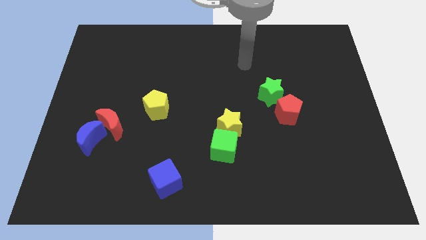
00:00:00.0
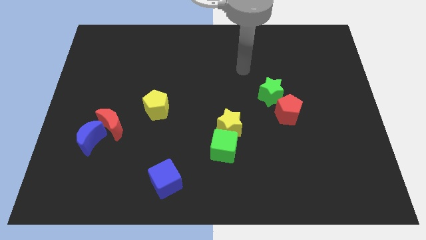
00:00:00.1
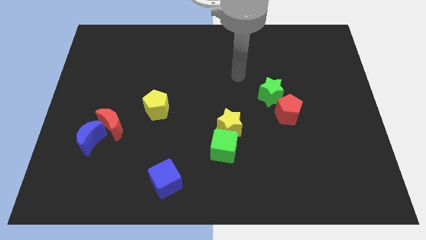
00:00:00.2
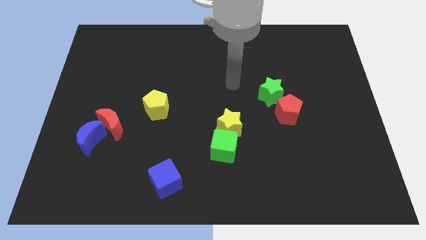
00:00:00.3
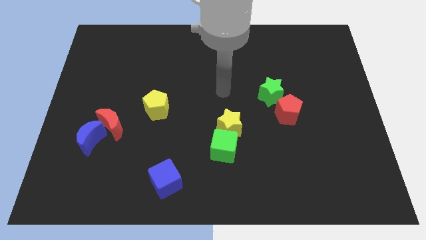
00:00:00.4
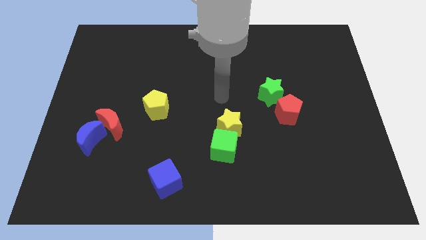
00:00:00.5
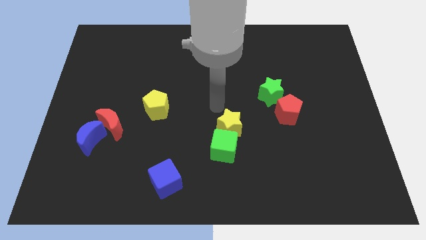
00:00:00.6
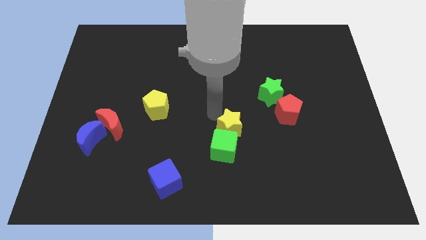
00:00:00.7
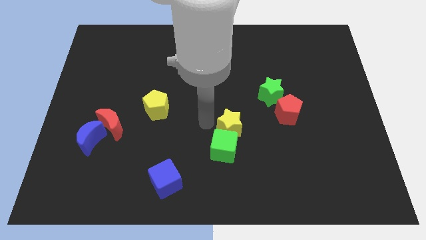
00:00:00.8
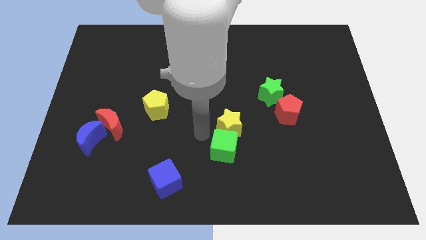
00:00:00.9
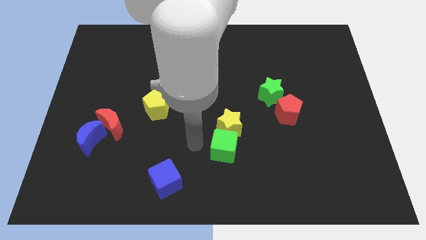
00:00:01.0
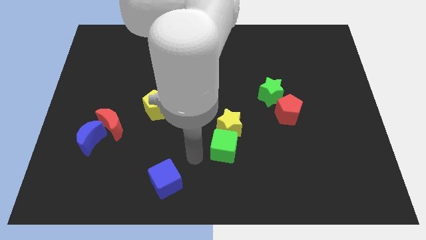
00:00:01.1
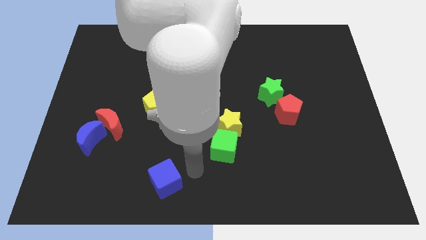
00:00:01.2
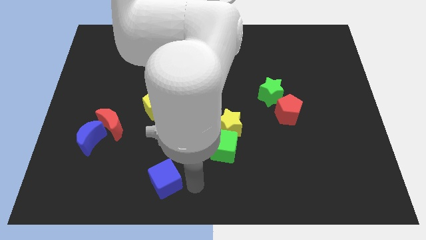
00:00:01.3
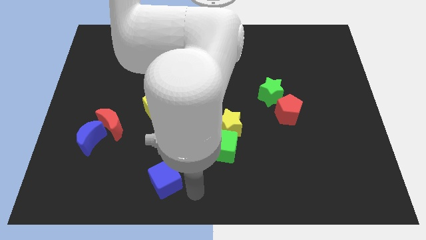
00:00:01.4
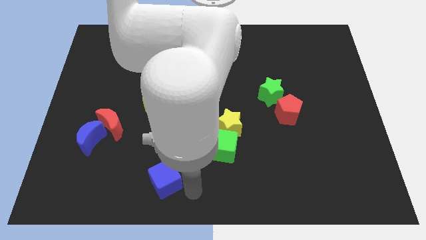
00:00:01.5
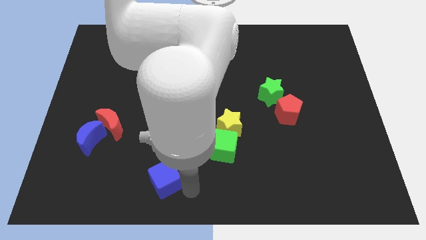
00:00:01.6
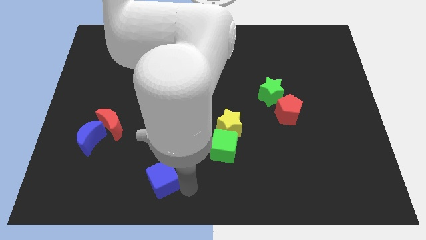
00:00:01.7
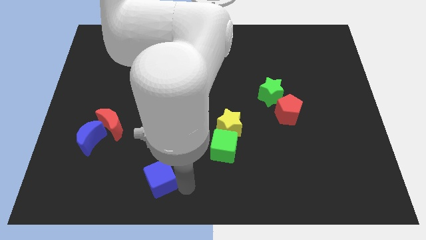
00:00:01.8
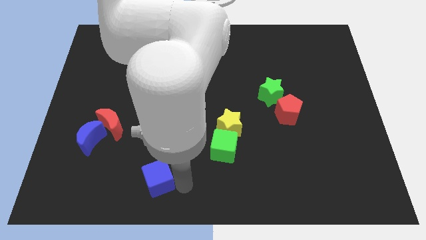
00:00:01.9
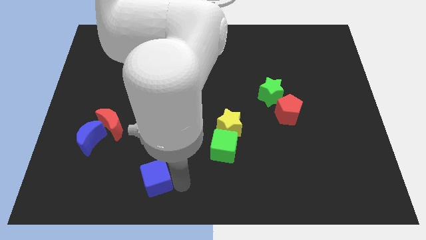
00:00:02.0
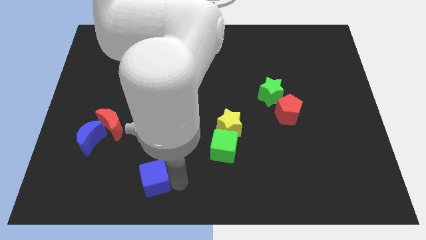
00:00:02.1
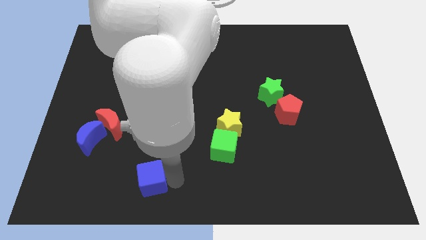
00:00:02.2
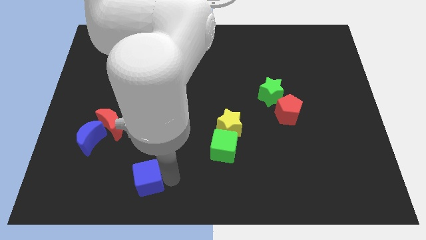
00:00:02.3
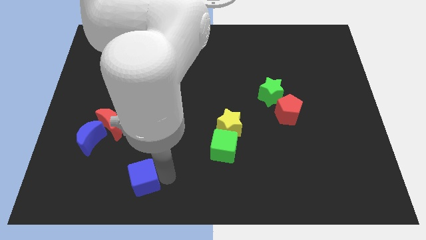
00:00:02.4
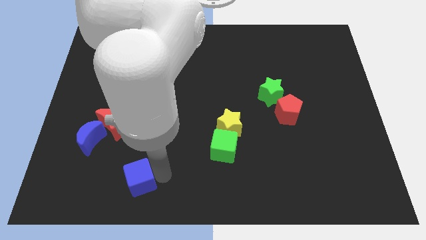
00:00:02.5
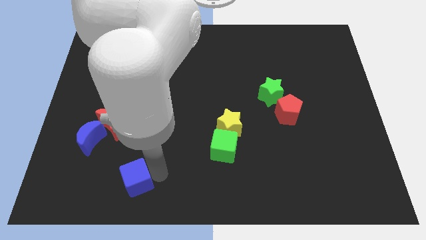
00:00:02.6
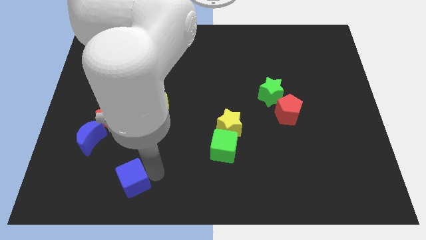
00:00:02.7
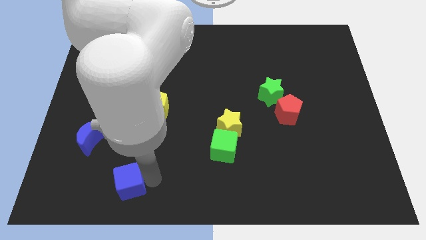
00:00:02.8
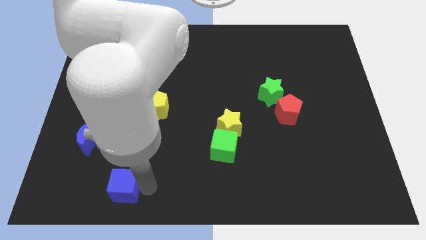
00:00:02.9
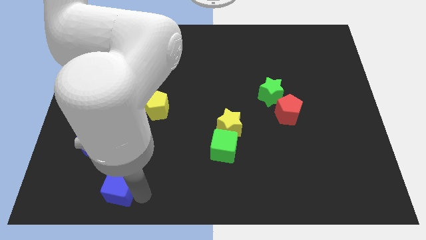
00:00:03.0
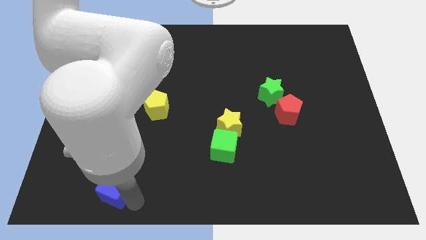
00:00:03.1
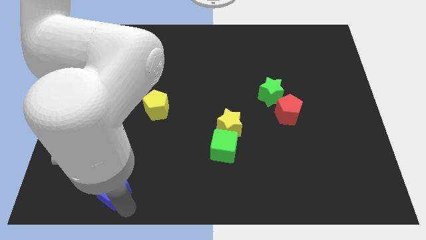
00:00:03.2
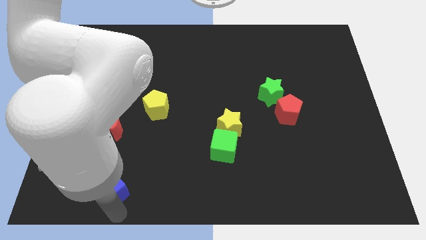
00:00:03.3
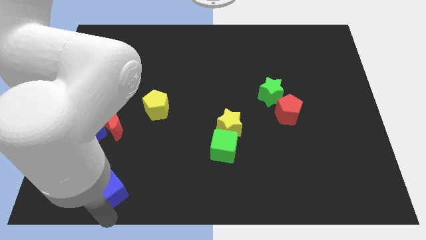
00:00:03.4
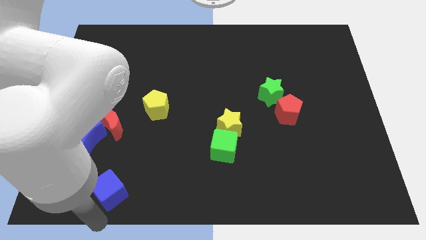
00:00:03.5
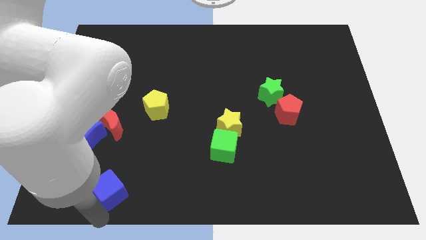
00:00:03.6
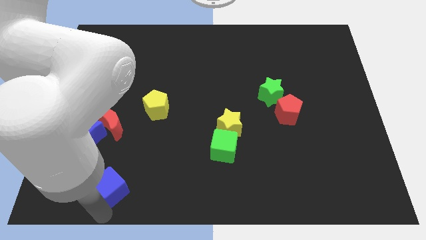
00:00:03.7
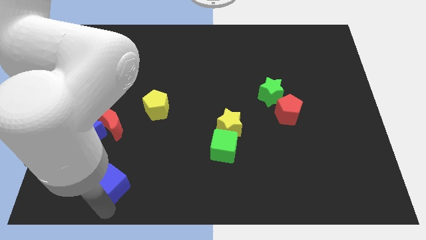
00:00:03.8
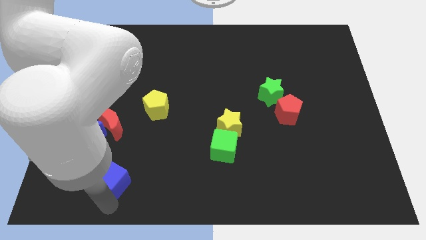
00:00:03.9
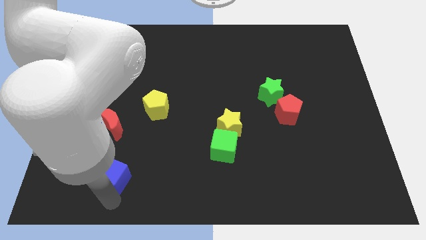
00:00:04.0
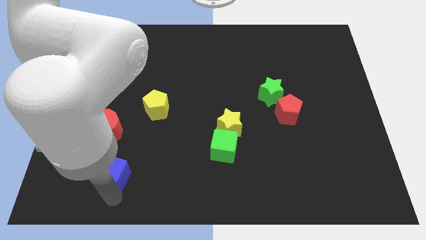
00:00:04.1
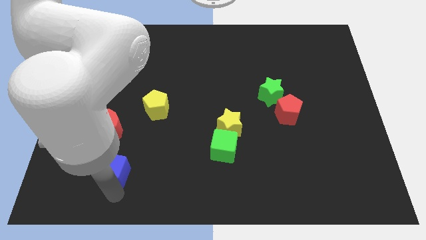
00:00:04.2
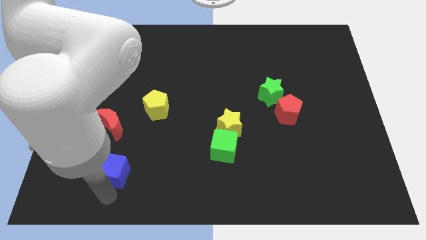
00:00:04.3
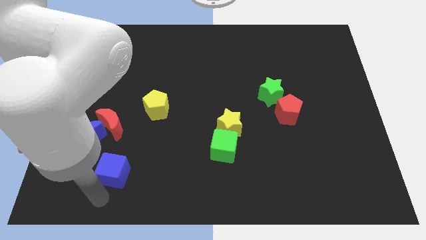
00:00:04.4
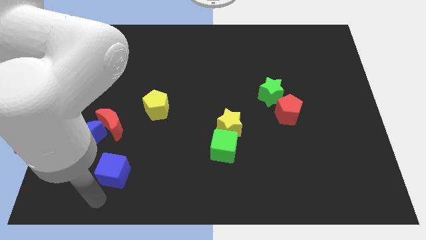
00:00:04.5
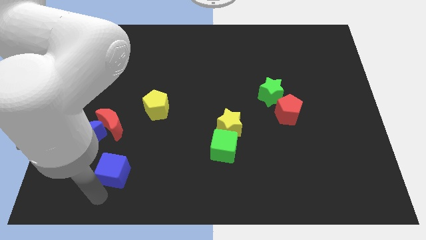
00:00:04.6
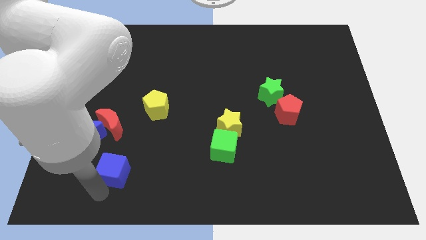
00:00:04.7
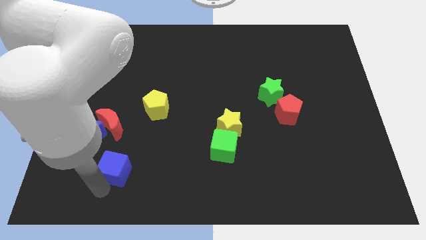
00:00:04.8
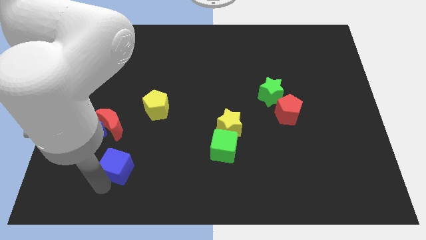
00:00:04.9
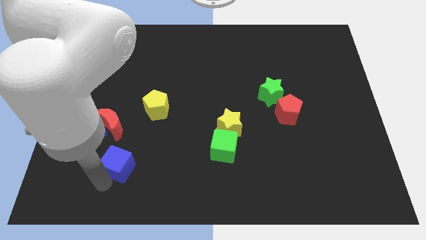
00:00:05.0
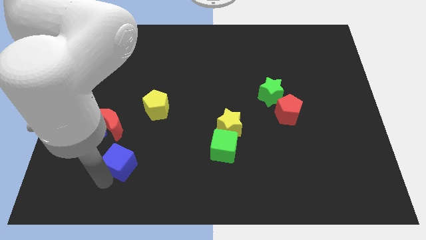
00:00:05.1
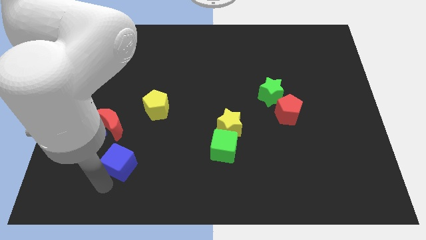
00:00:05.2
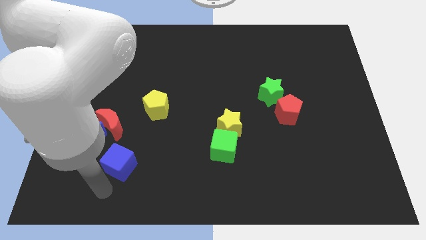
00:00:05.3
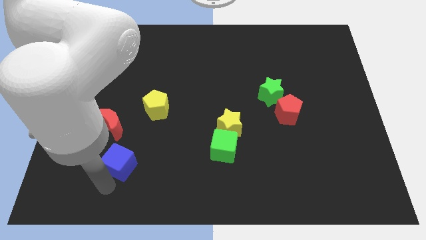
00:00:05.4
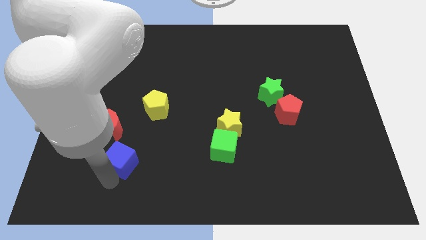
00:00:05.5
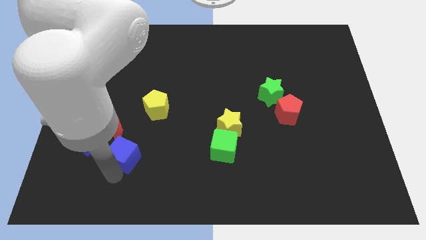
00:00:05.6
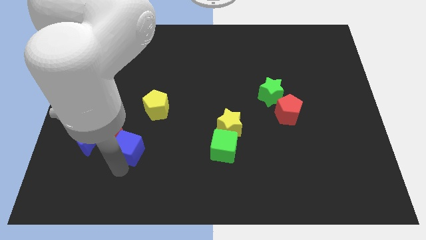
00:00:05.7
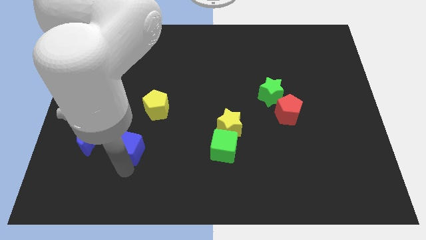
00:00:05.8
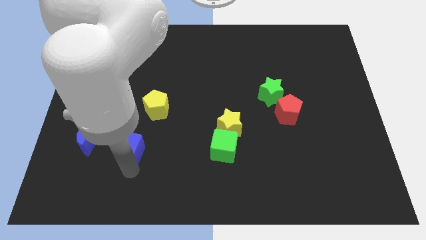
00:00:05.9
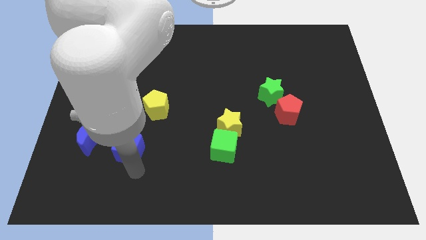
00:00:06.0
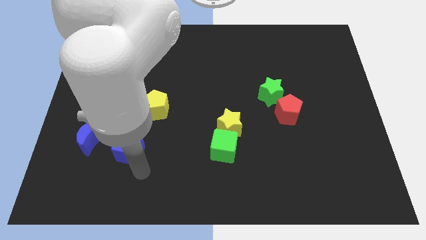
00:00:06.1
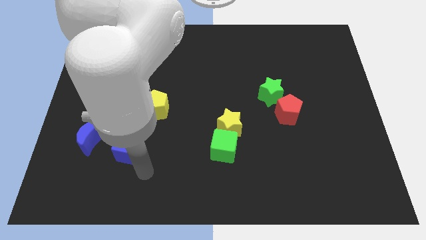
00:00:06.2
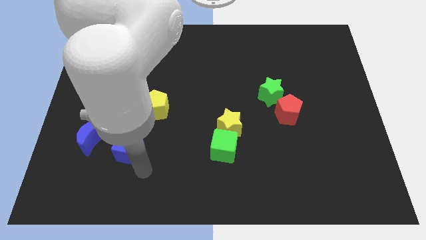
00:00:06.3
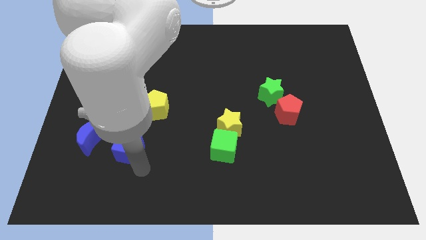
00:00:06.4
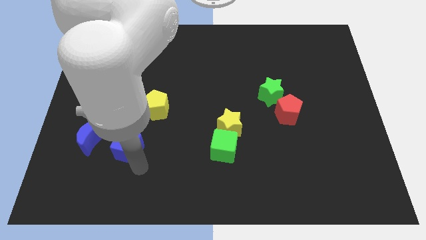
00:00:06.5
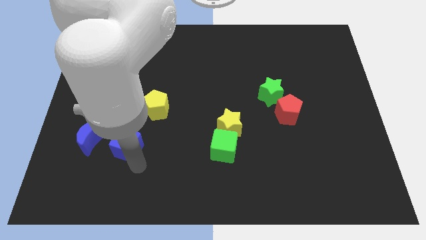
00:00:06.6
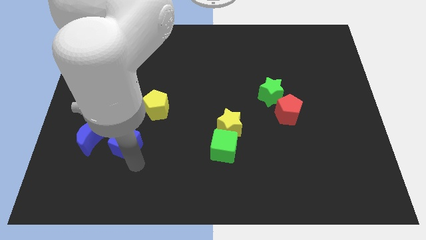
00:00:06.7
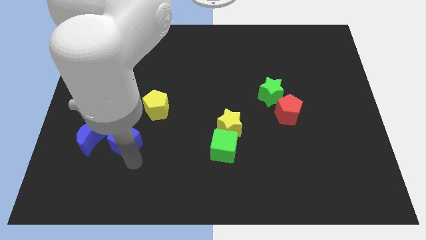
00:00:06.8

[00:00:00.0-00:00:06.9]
put the blue cube next to the red moon

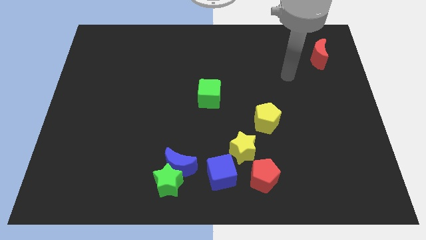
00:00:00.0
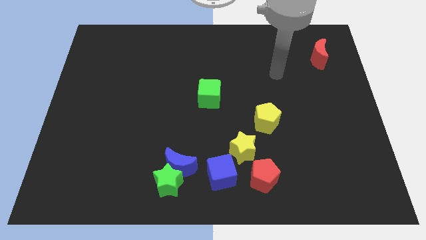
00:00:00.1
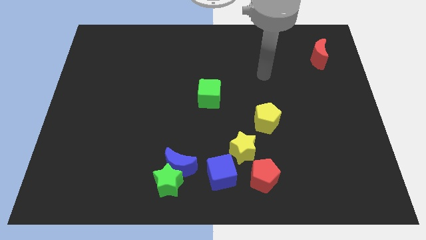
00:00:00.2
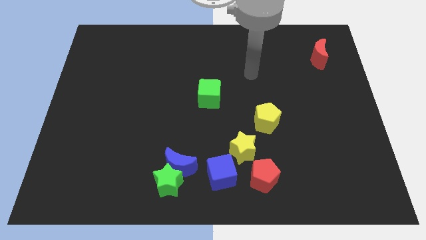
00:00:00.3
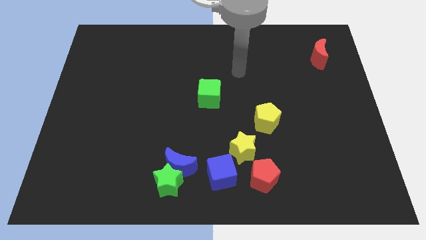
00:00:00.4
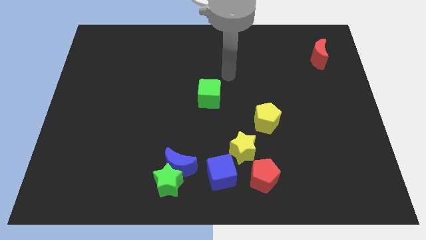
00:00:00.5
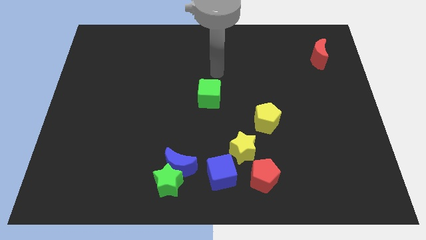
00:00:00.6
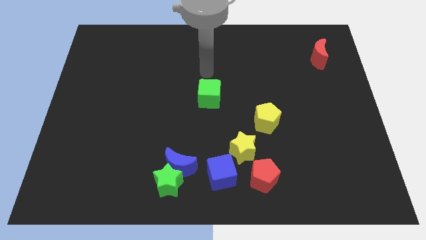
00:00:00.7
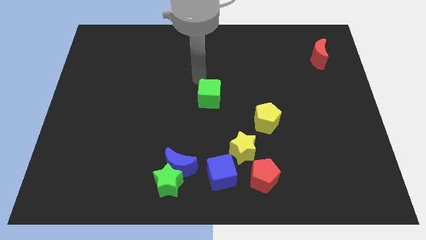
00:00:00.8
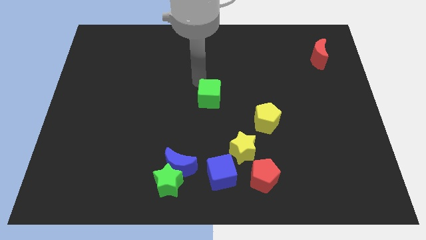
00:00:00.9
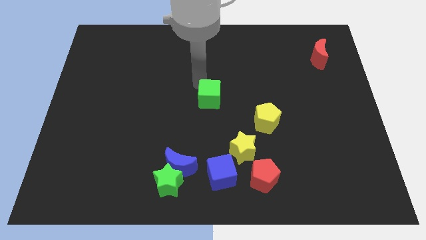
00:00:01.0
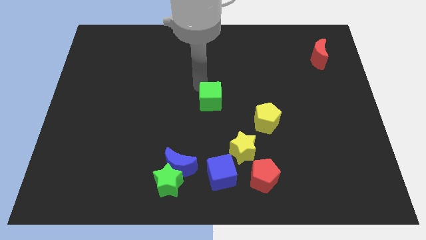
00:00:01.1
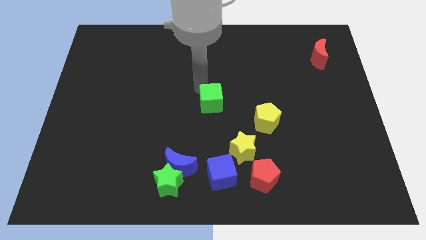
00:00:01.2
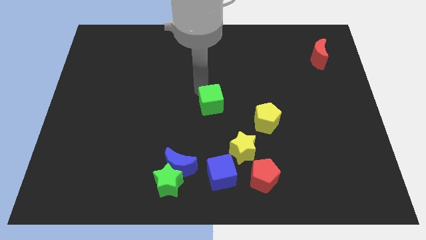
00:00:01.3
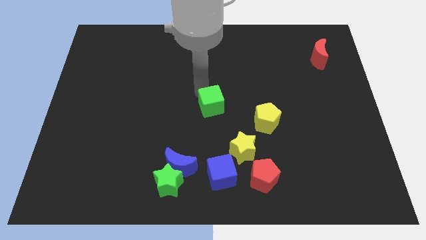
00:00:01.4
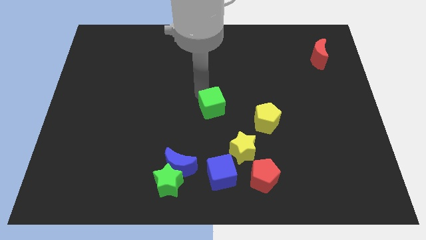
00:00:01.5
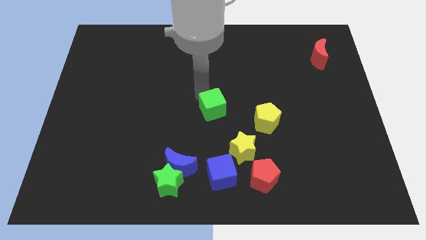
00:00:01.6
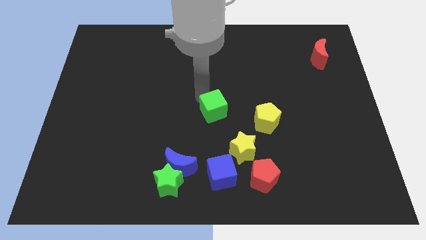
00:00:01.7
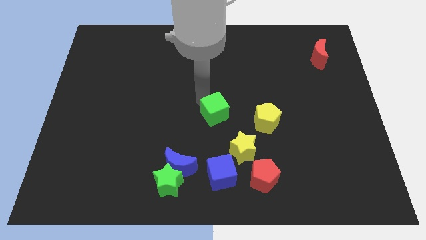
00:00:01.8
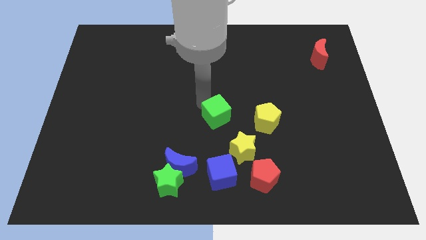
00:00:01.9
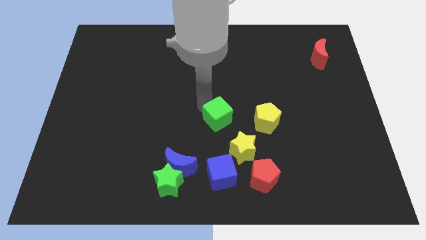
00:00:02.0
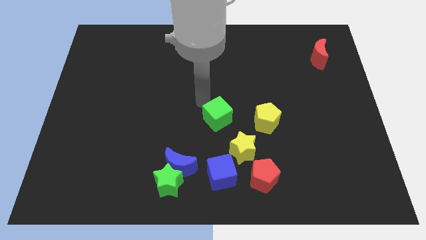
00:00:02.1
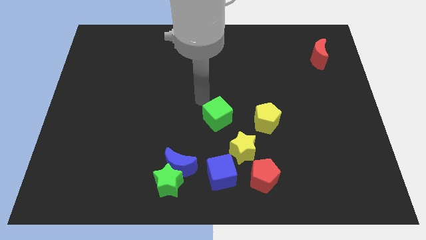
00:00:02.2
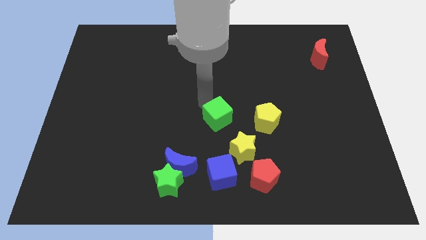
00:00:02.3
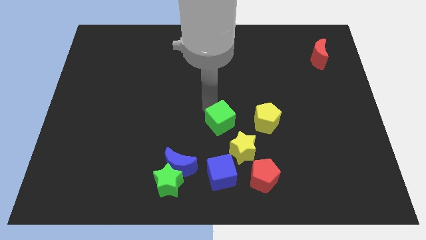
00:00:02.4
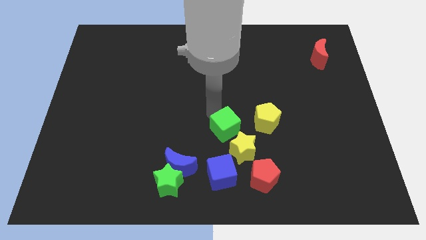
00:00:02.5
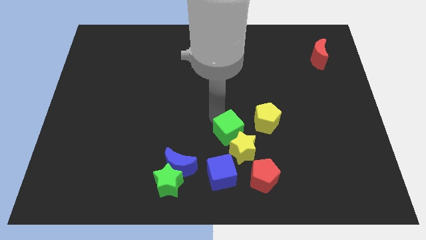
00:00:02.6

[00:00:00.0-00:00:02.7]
put the green cube close to the yellow star
